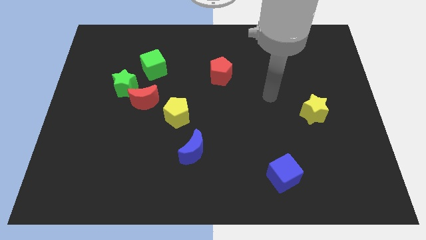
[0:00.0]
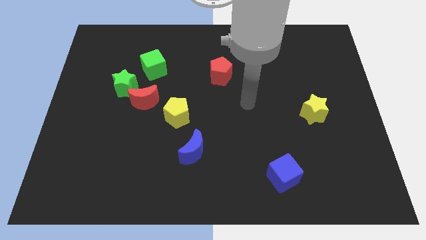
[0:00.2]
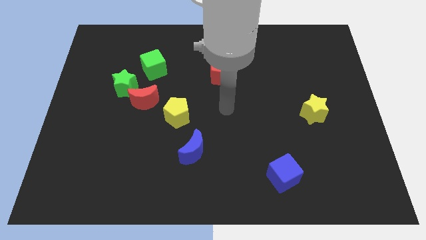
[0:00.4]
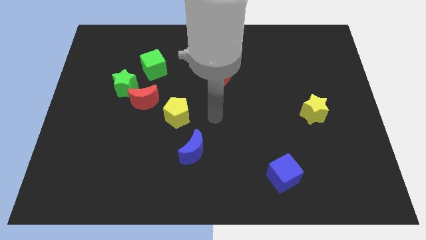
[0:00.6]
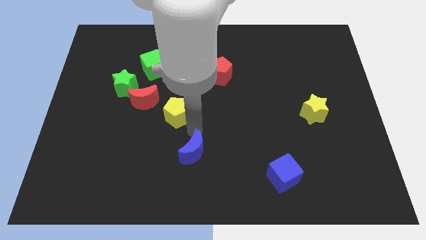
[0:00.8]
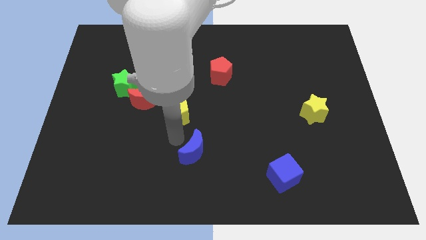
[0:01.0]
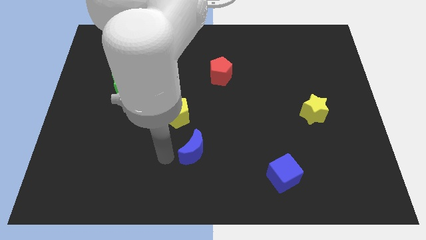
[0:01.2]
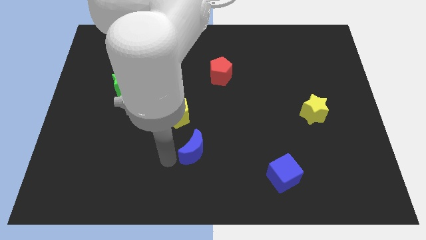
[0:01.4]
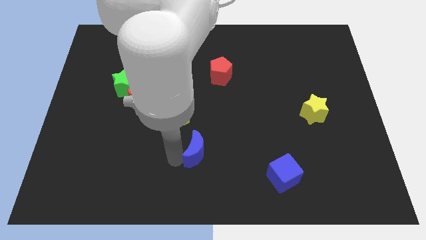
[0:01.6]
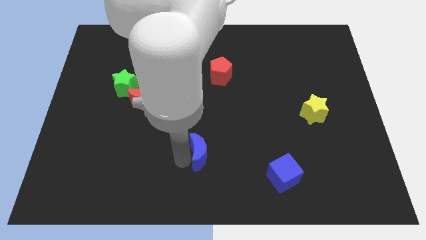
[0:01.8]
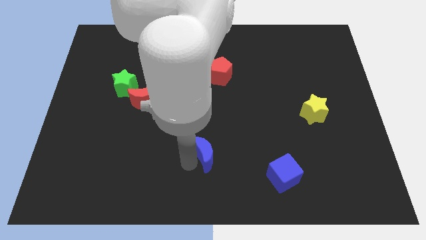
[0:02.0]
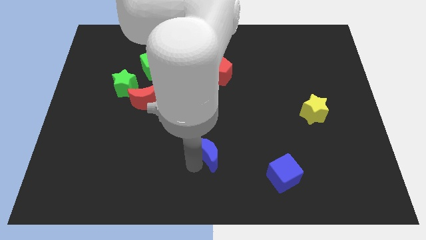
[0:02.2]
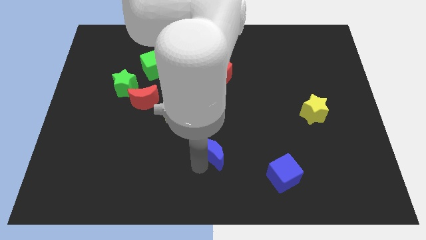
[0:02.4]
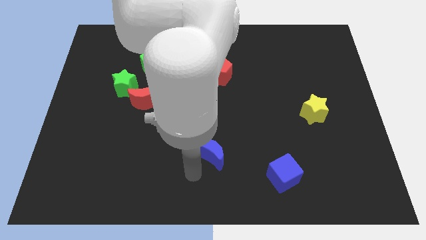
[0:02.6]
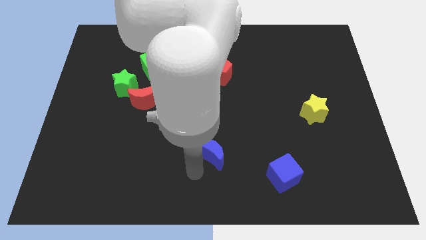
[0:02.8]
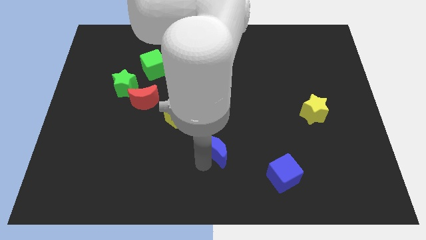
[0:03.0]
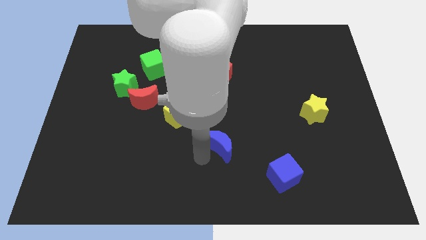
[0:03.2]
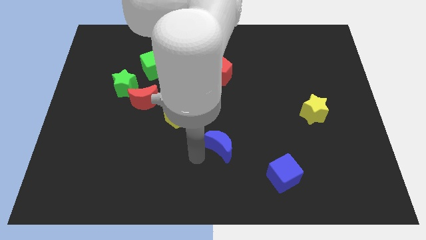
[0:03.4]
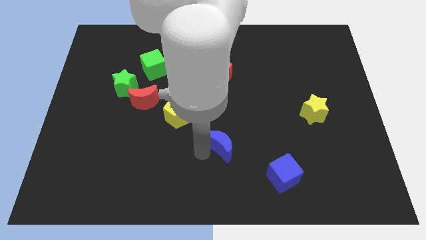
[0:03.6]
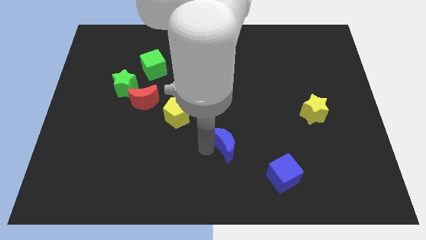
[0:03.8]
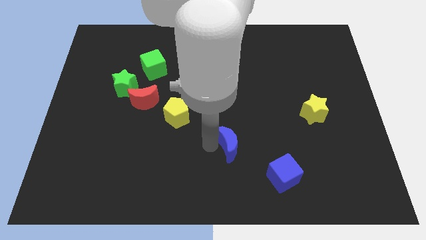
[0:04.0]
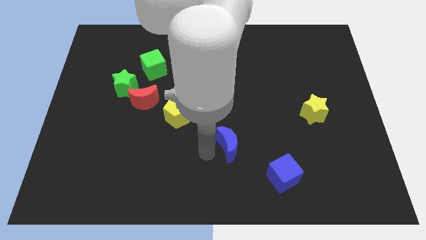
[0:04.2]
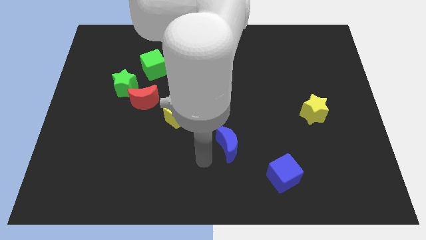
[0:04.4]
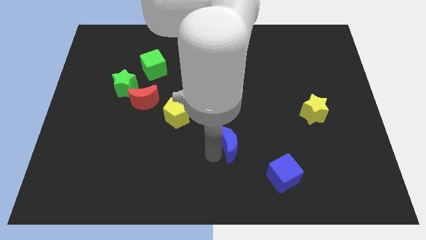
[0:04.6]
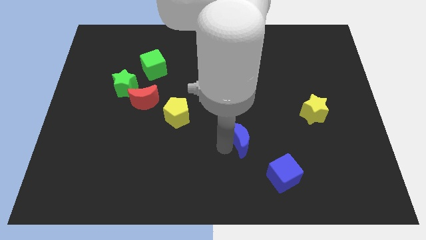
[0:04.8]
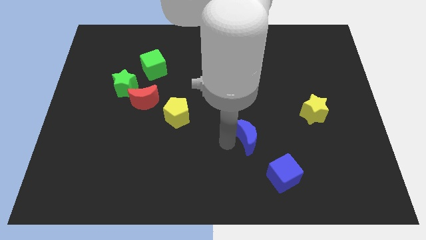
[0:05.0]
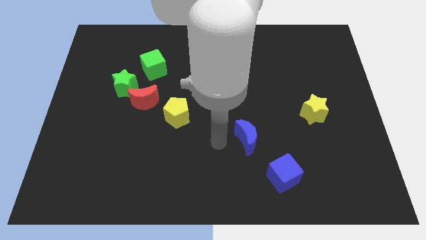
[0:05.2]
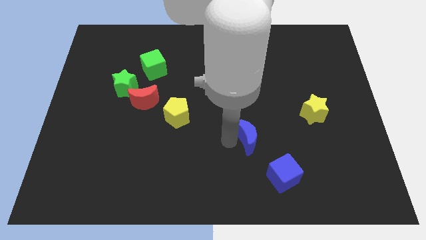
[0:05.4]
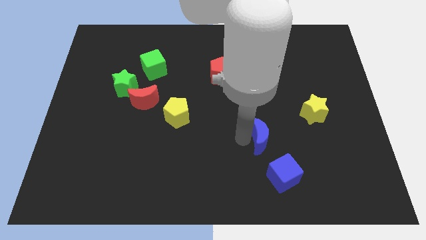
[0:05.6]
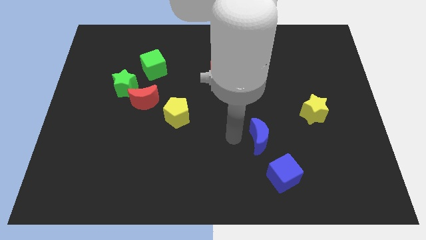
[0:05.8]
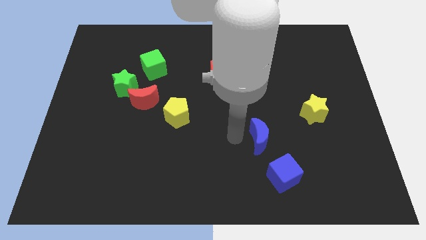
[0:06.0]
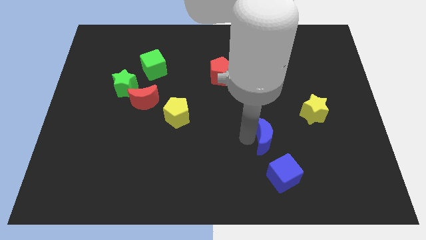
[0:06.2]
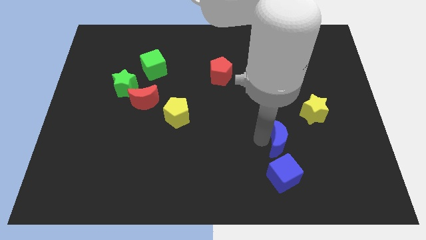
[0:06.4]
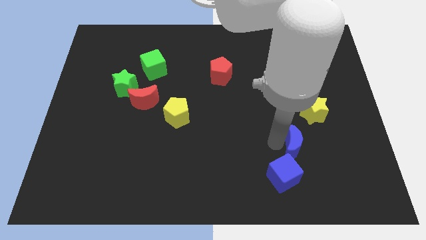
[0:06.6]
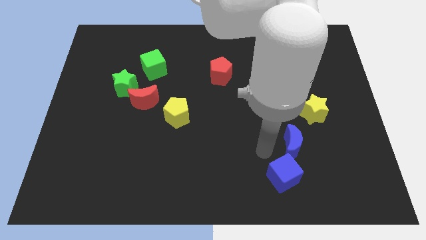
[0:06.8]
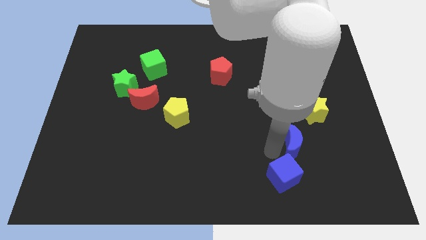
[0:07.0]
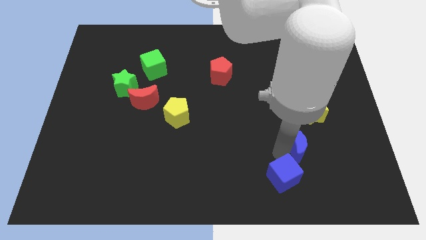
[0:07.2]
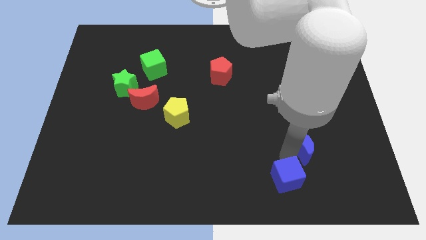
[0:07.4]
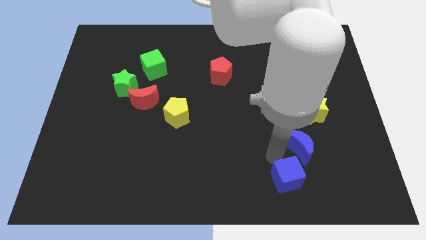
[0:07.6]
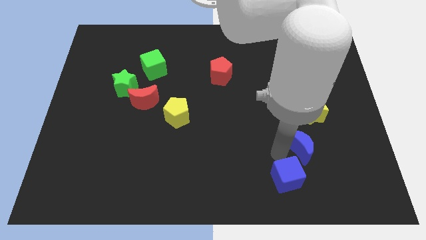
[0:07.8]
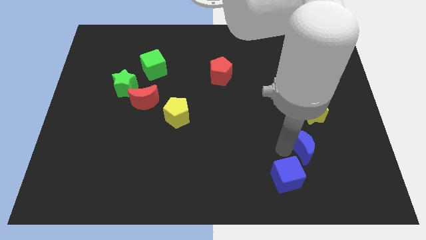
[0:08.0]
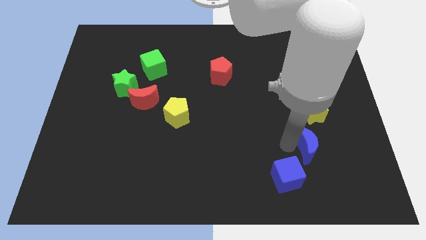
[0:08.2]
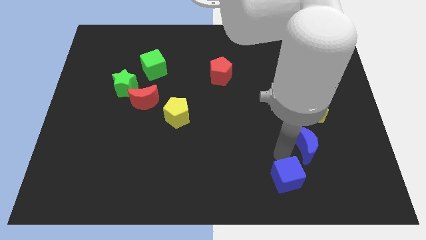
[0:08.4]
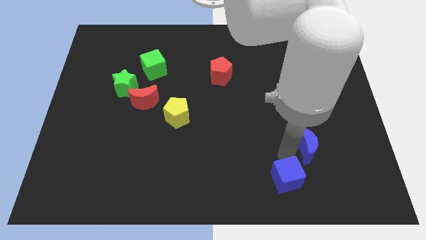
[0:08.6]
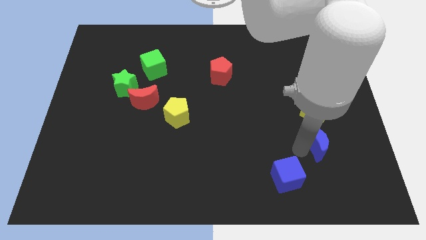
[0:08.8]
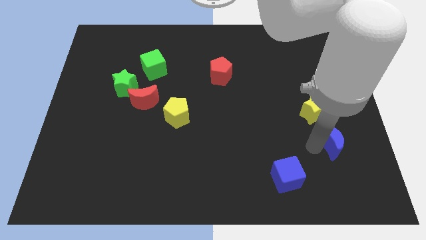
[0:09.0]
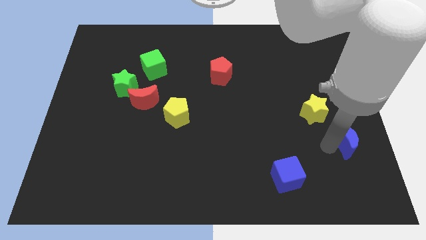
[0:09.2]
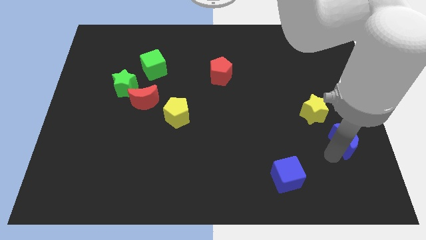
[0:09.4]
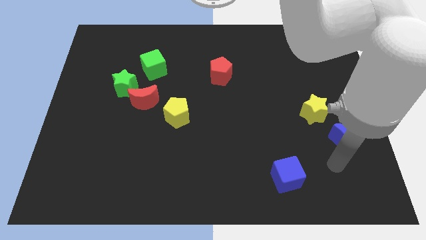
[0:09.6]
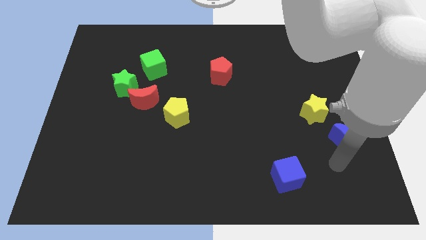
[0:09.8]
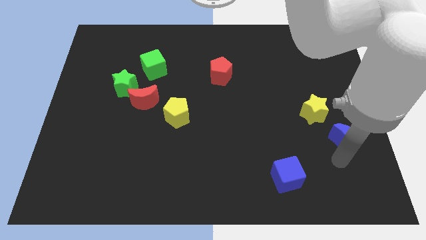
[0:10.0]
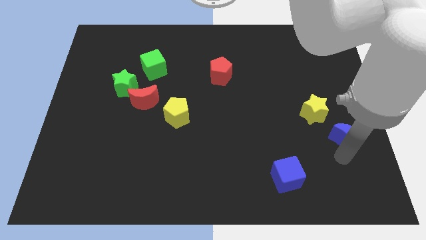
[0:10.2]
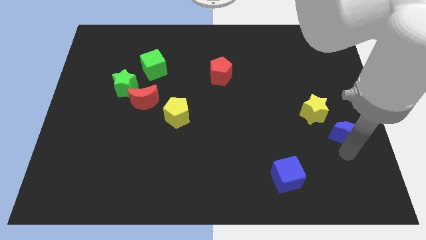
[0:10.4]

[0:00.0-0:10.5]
put the blue moon to the right side of the board
